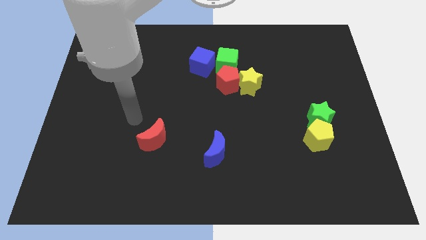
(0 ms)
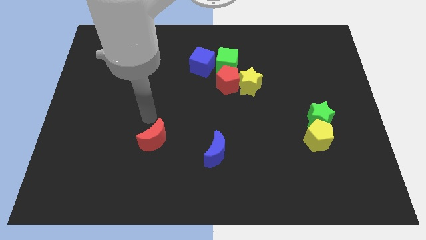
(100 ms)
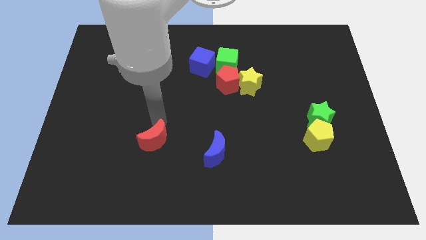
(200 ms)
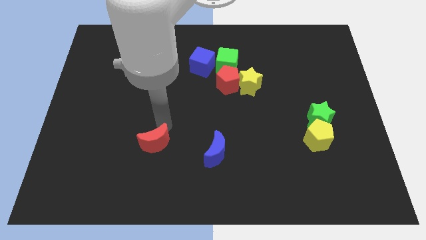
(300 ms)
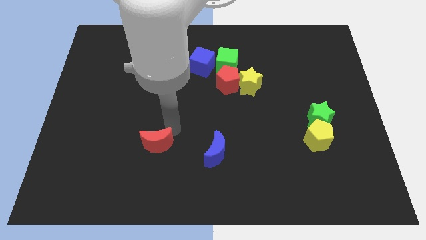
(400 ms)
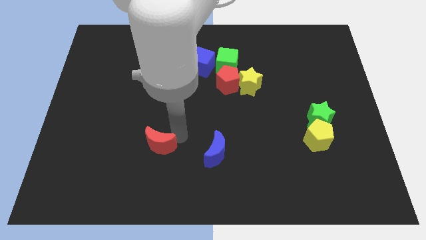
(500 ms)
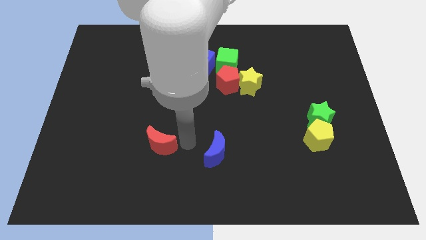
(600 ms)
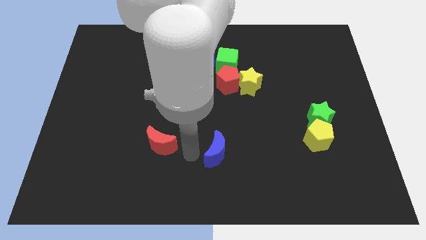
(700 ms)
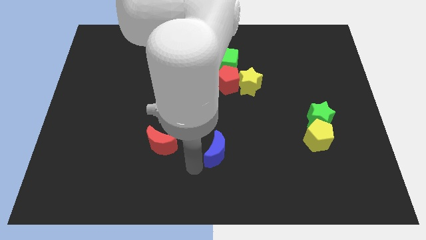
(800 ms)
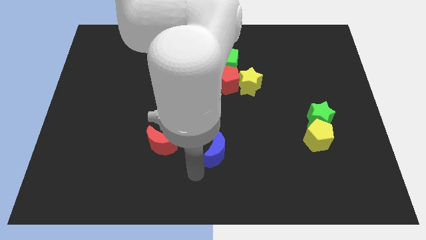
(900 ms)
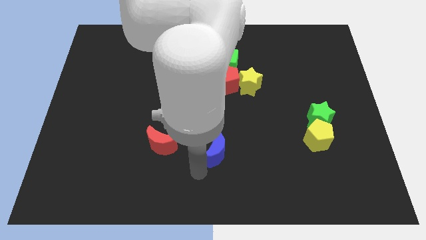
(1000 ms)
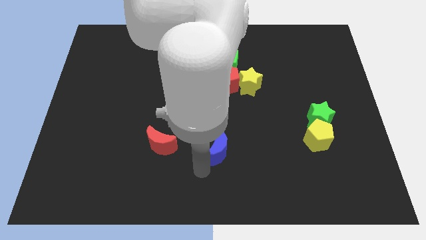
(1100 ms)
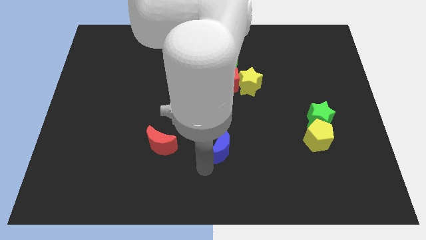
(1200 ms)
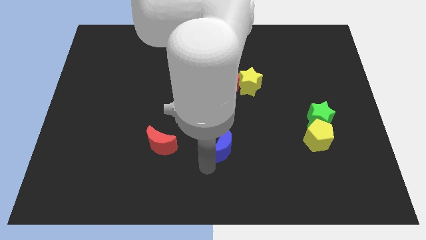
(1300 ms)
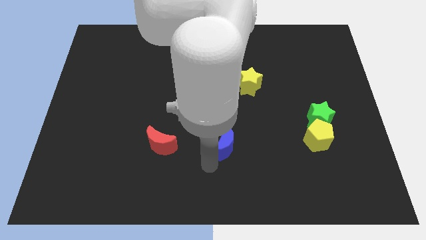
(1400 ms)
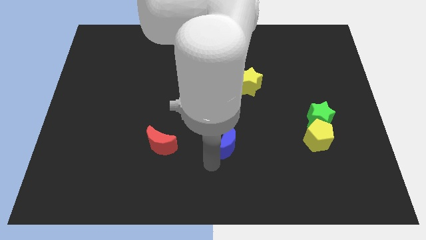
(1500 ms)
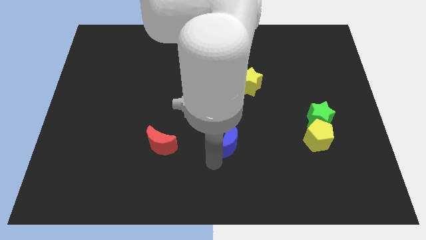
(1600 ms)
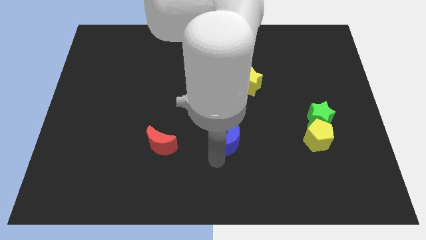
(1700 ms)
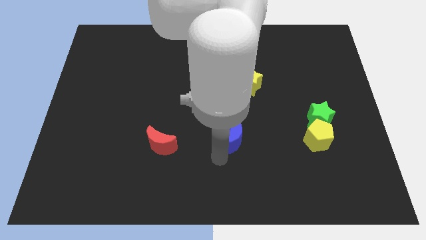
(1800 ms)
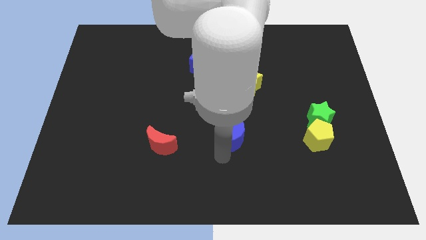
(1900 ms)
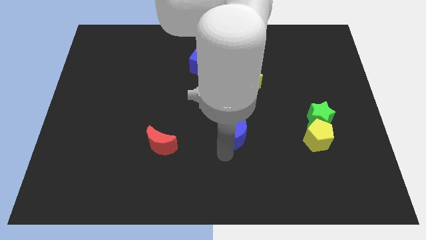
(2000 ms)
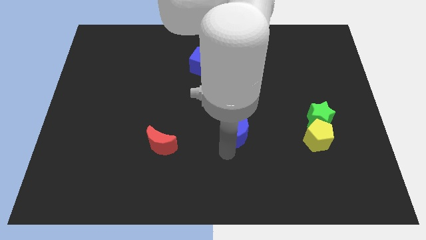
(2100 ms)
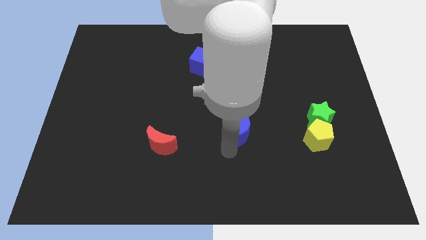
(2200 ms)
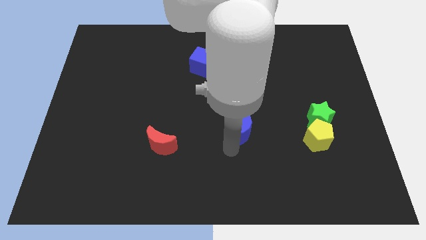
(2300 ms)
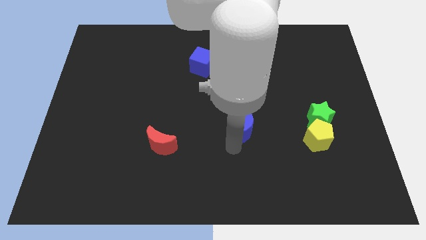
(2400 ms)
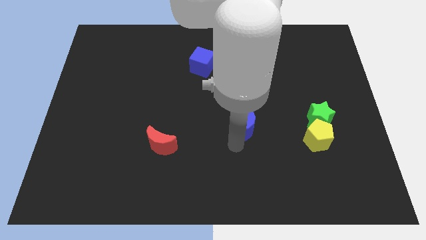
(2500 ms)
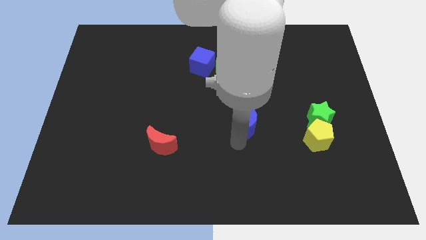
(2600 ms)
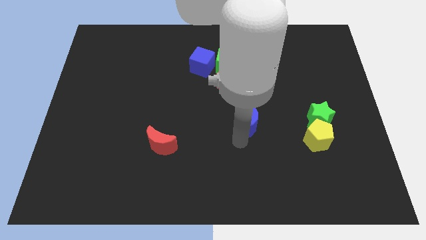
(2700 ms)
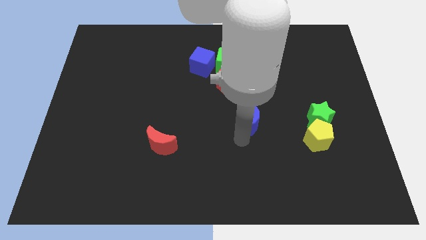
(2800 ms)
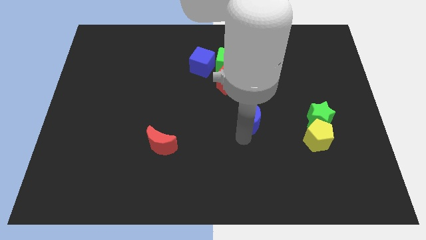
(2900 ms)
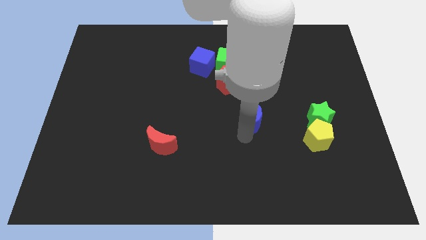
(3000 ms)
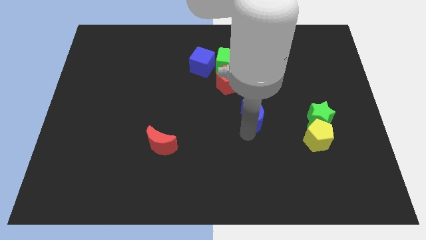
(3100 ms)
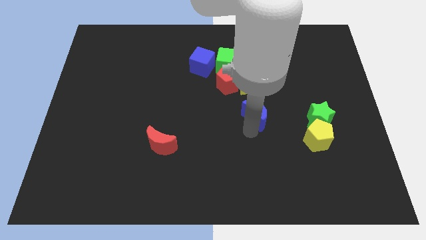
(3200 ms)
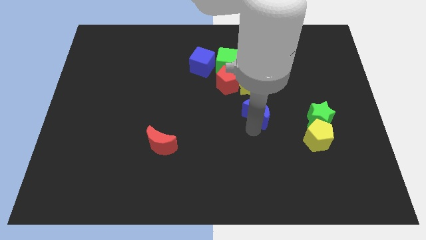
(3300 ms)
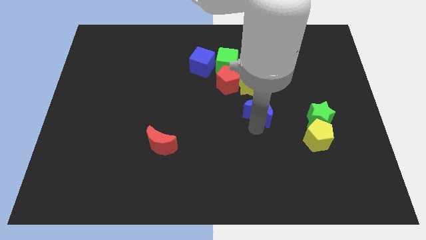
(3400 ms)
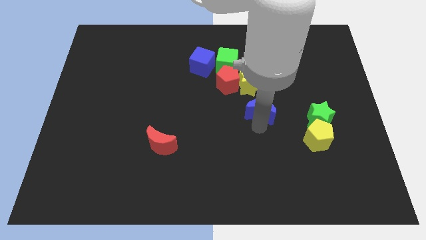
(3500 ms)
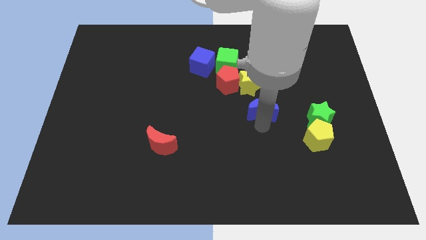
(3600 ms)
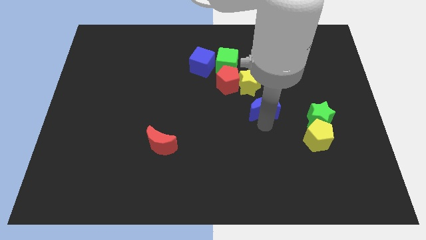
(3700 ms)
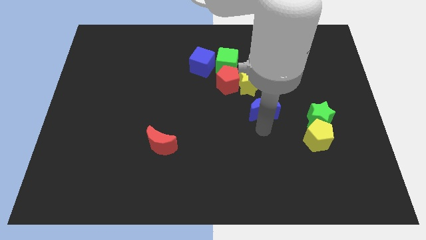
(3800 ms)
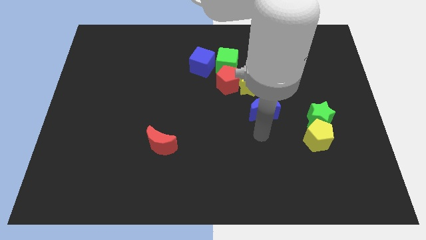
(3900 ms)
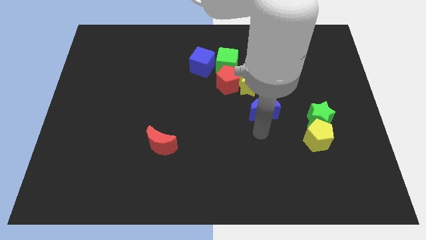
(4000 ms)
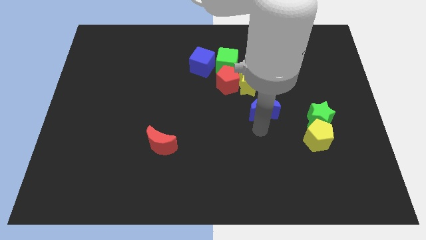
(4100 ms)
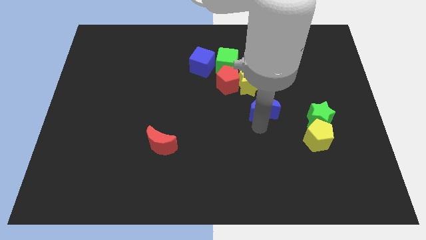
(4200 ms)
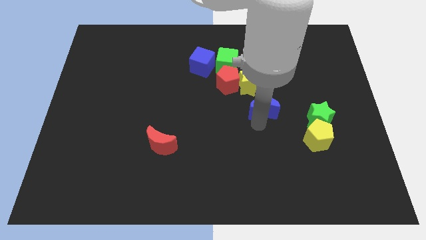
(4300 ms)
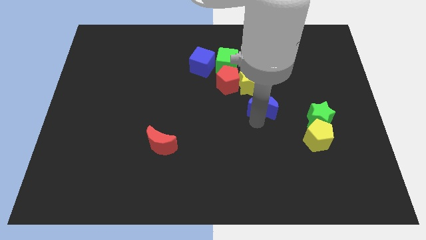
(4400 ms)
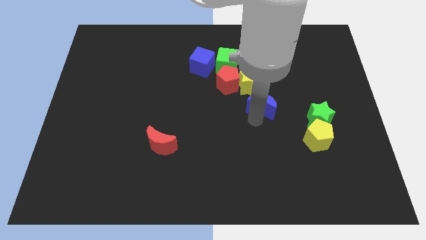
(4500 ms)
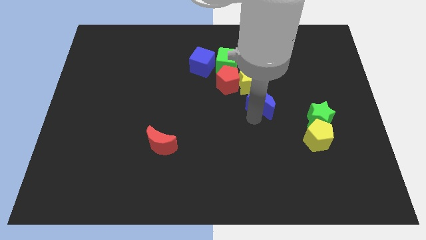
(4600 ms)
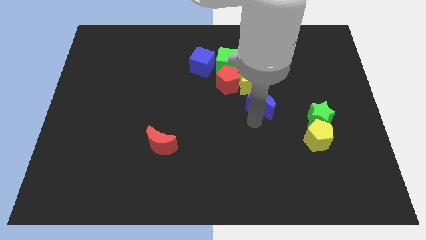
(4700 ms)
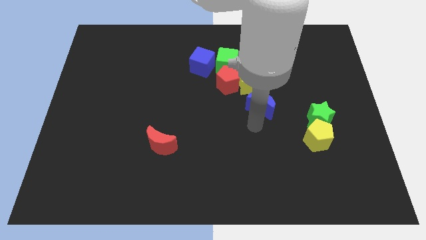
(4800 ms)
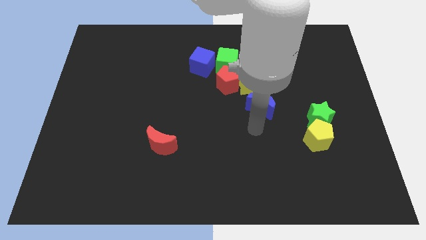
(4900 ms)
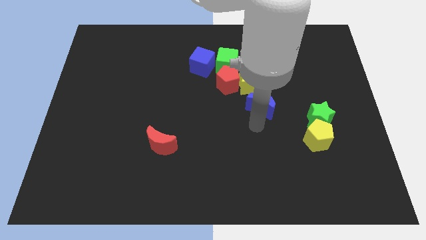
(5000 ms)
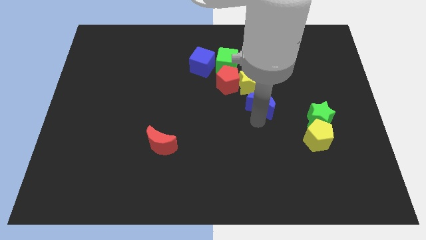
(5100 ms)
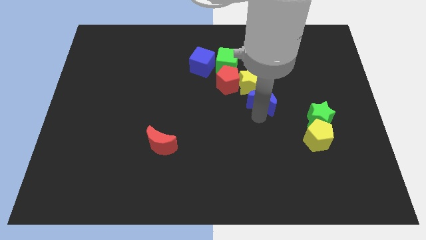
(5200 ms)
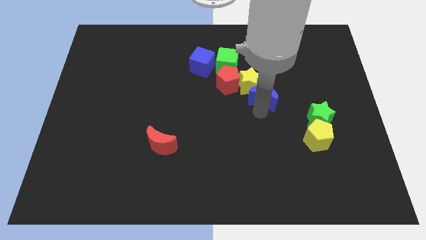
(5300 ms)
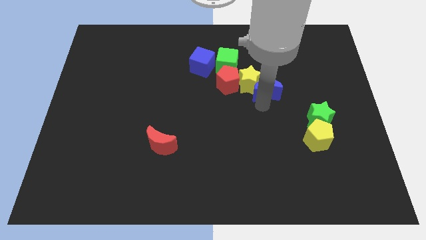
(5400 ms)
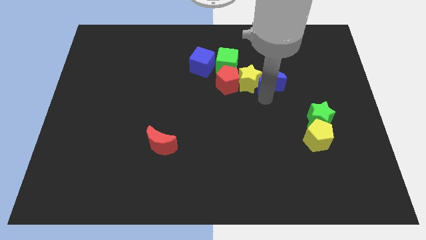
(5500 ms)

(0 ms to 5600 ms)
put the blue moon to the top right of the yellow star

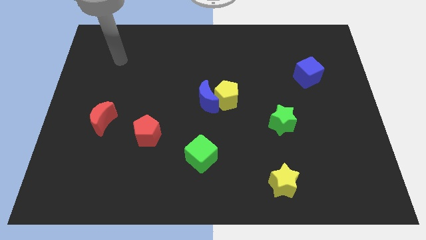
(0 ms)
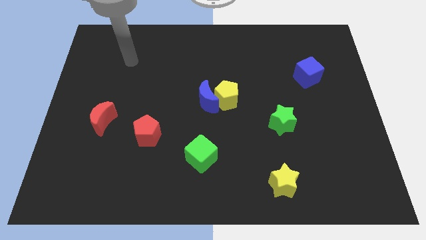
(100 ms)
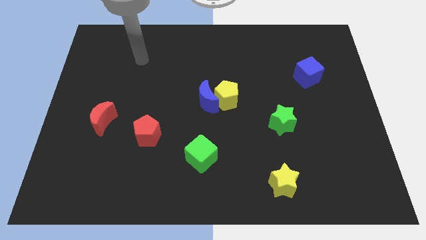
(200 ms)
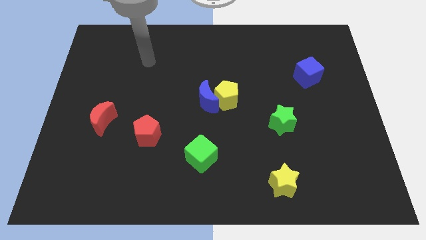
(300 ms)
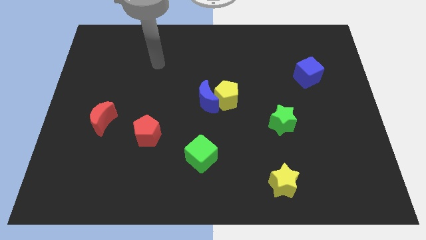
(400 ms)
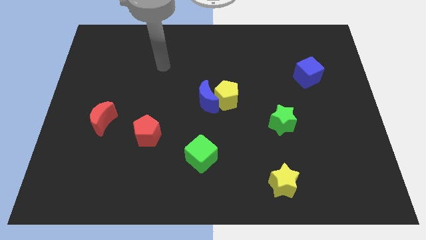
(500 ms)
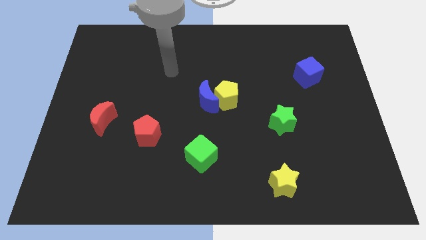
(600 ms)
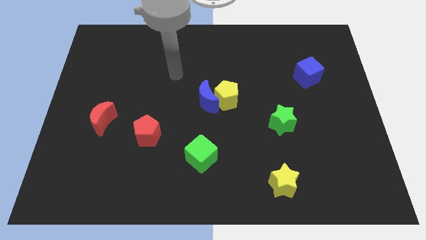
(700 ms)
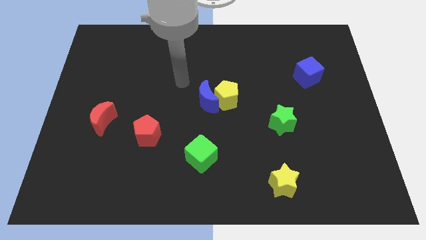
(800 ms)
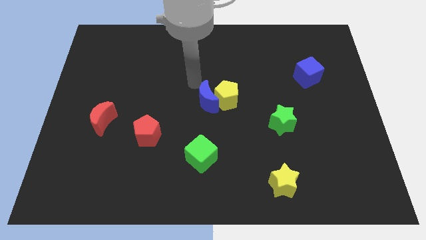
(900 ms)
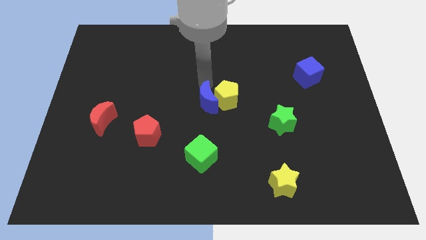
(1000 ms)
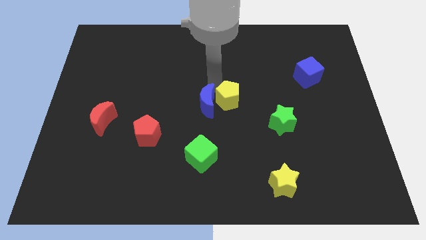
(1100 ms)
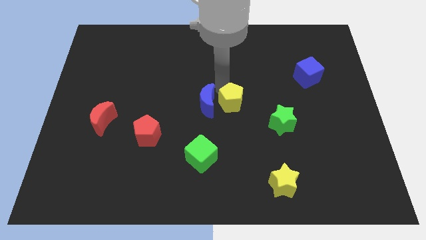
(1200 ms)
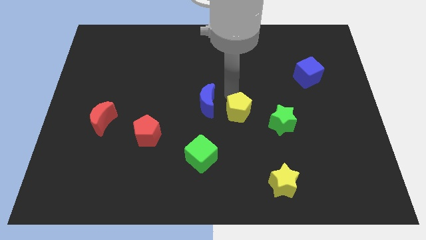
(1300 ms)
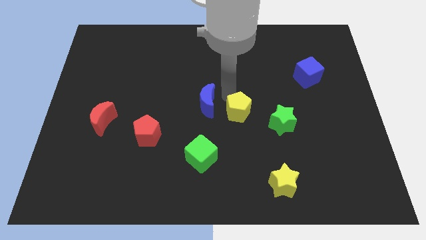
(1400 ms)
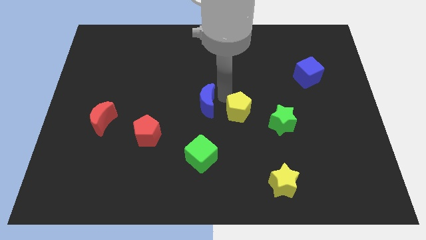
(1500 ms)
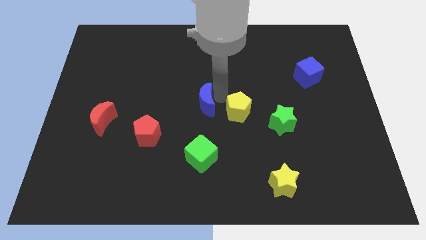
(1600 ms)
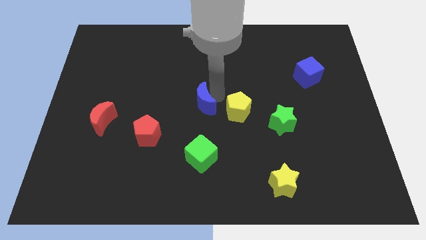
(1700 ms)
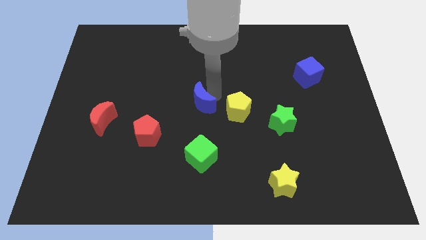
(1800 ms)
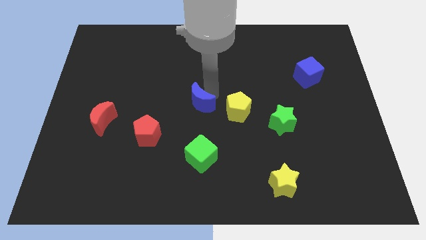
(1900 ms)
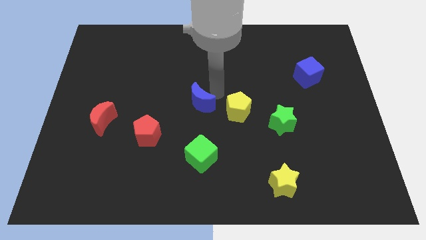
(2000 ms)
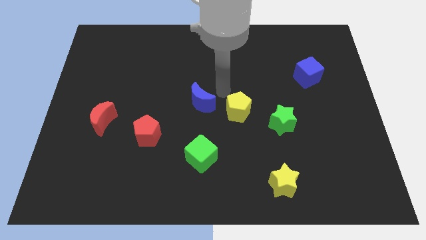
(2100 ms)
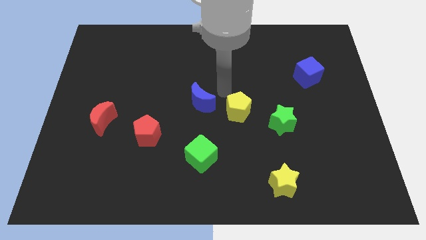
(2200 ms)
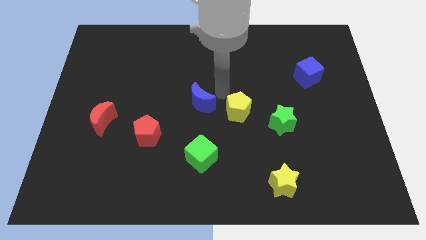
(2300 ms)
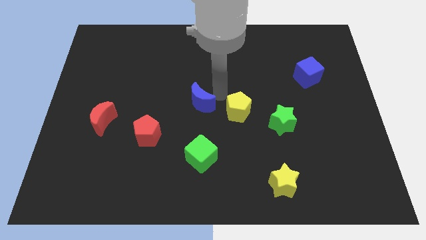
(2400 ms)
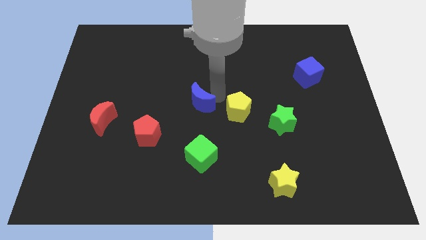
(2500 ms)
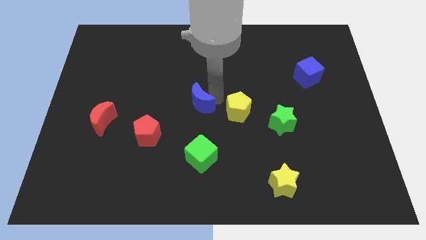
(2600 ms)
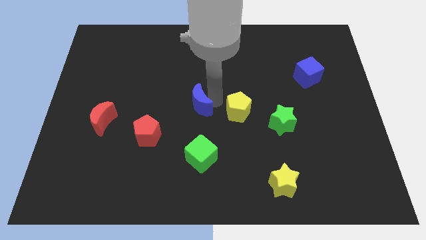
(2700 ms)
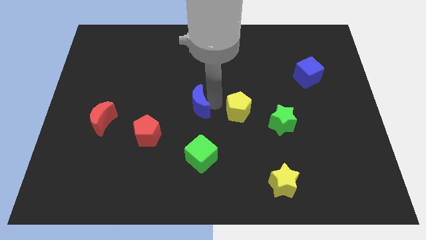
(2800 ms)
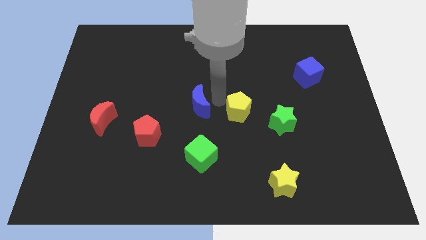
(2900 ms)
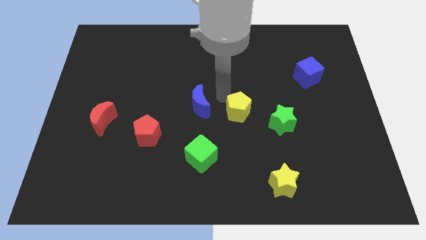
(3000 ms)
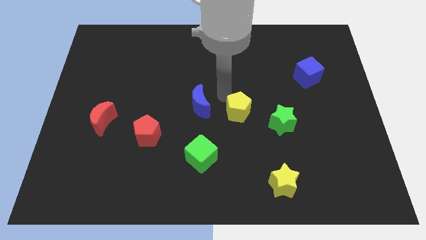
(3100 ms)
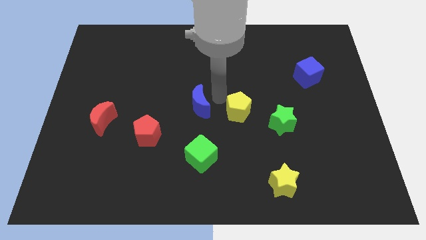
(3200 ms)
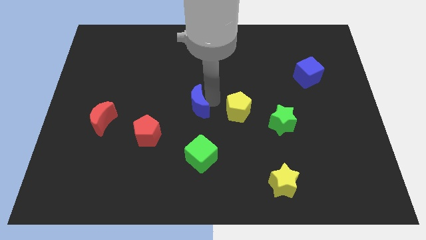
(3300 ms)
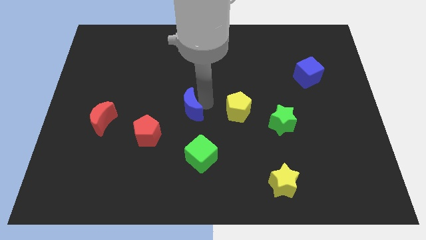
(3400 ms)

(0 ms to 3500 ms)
slide the blue moon to the top right of the red pentagon
